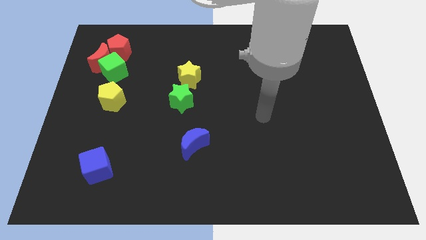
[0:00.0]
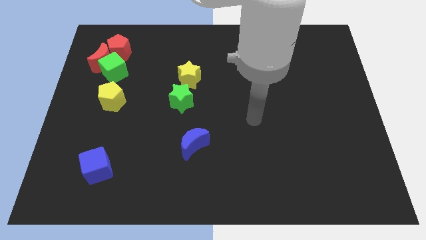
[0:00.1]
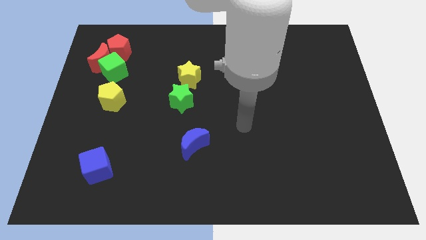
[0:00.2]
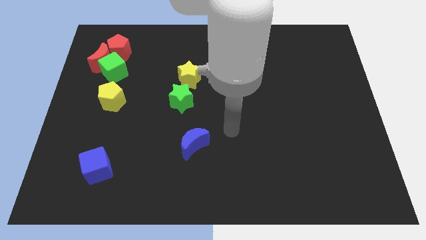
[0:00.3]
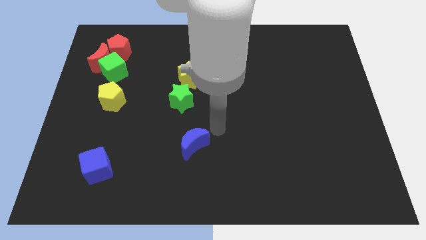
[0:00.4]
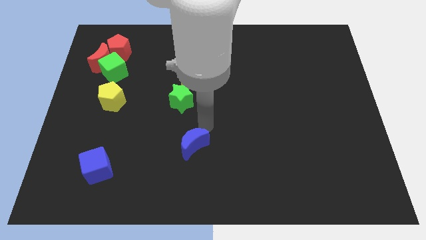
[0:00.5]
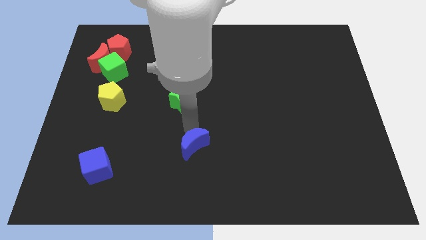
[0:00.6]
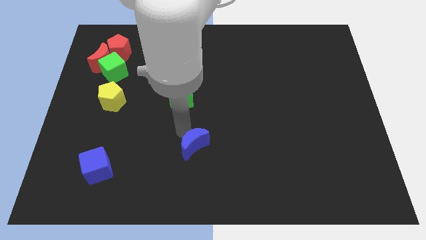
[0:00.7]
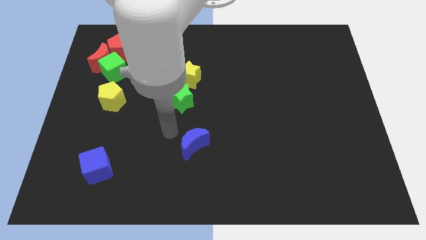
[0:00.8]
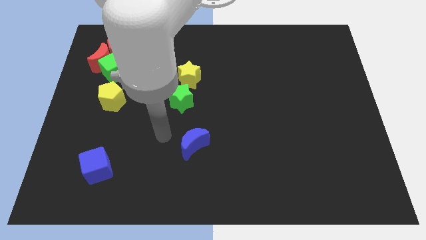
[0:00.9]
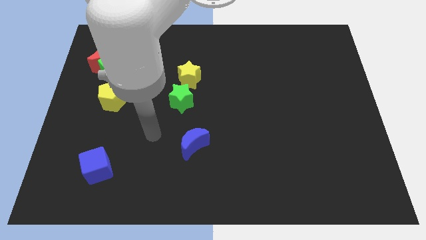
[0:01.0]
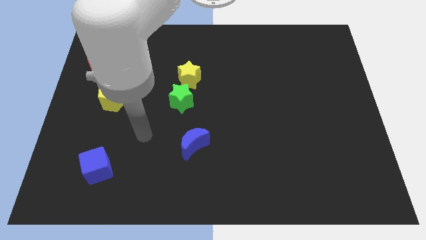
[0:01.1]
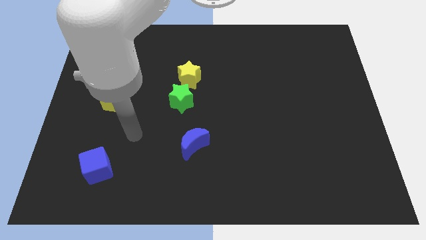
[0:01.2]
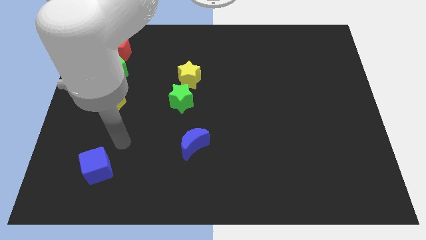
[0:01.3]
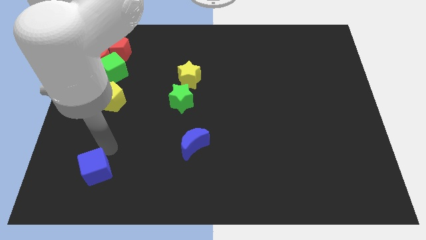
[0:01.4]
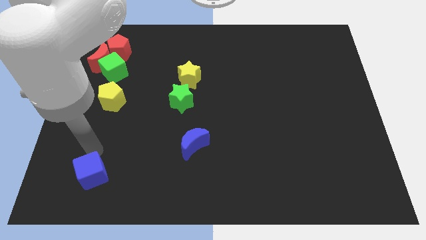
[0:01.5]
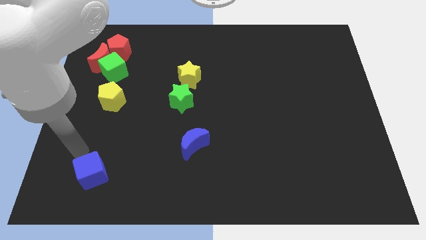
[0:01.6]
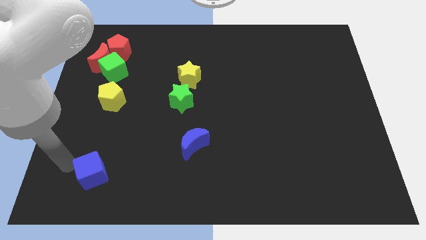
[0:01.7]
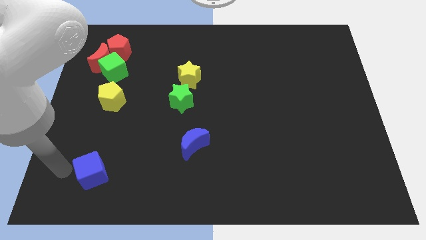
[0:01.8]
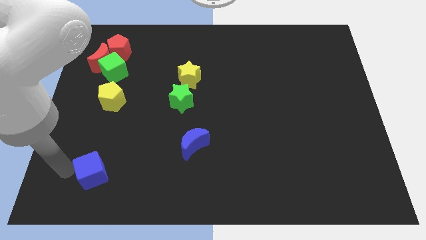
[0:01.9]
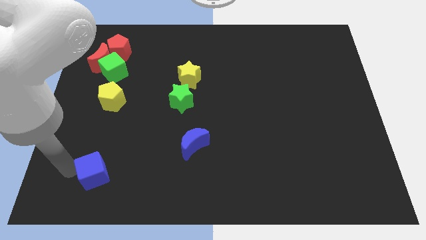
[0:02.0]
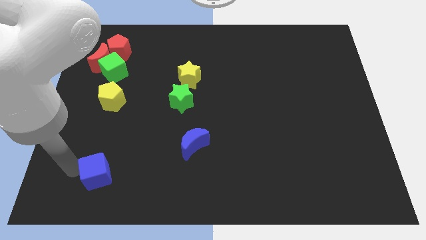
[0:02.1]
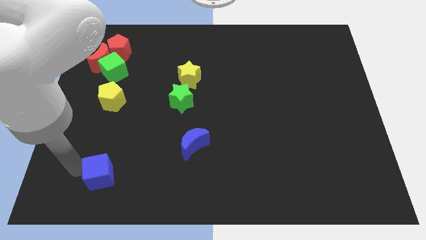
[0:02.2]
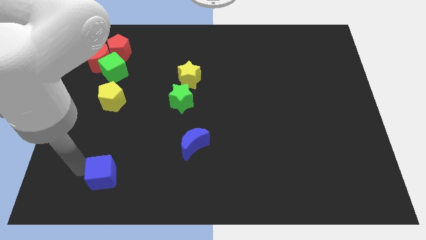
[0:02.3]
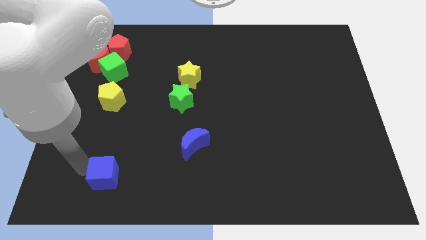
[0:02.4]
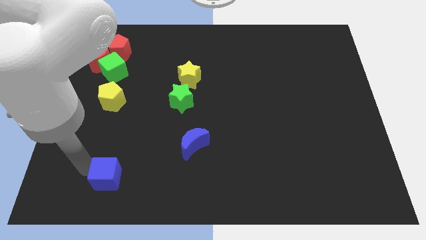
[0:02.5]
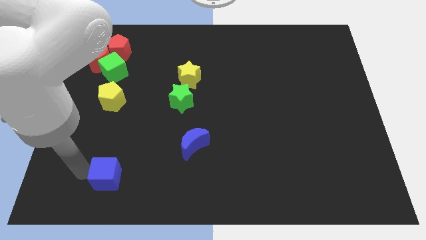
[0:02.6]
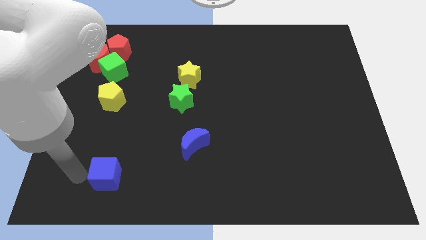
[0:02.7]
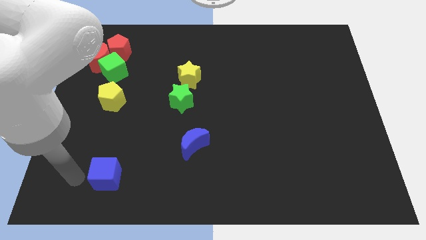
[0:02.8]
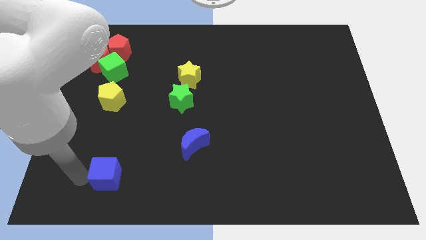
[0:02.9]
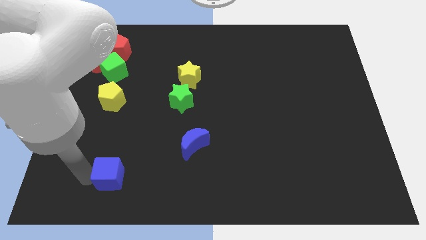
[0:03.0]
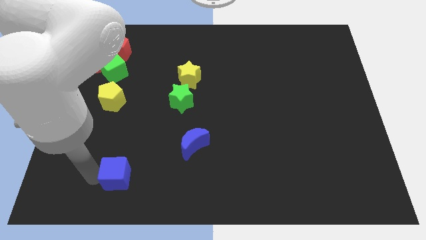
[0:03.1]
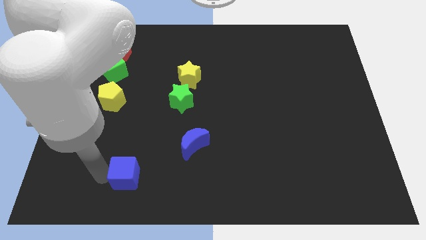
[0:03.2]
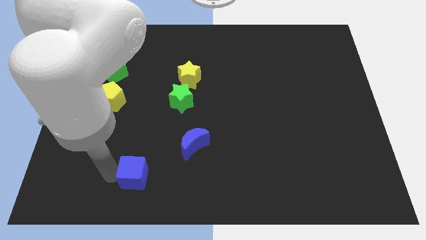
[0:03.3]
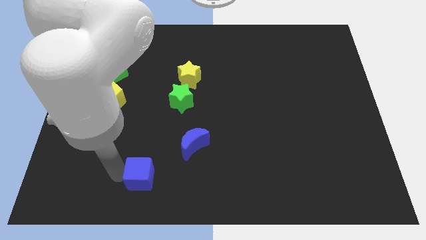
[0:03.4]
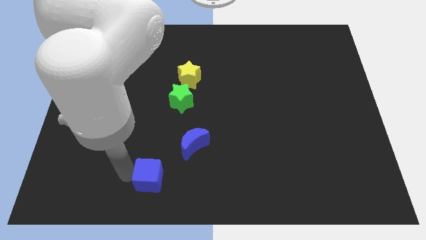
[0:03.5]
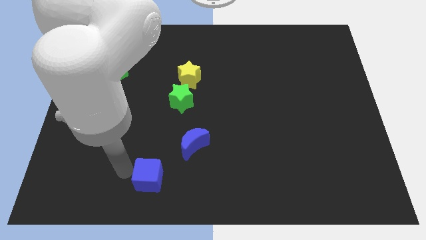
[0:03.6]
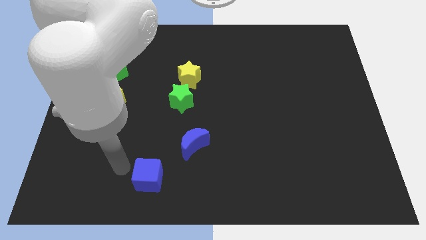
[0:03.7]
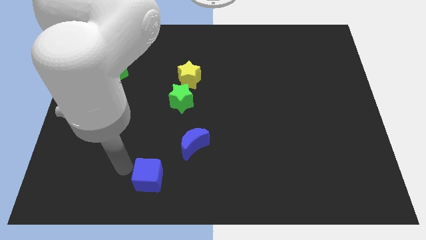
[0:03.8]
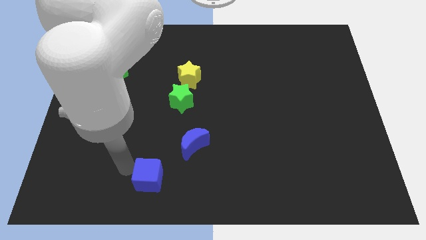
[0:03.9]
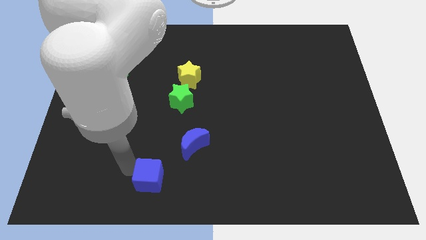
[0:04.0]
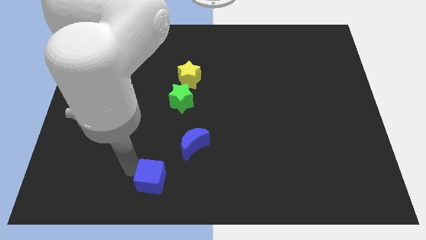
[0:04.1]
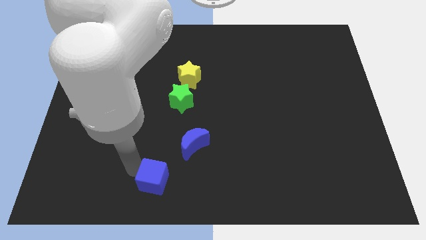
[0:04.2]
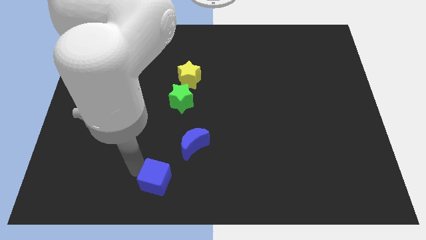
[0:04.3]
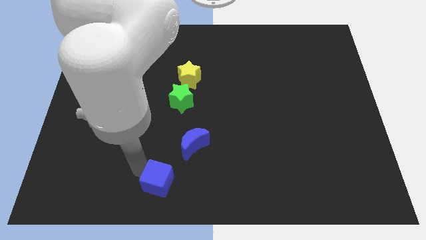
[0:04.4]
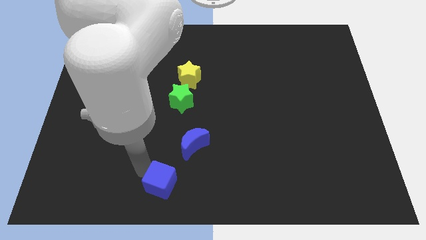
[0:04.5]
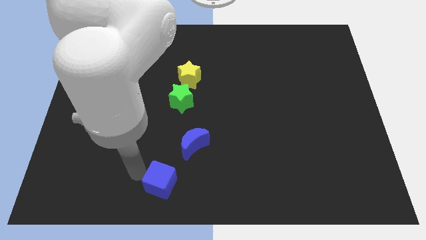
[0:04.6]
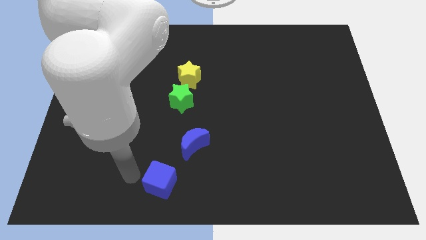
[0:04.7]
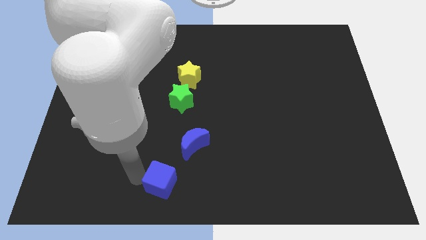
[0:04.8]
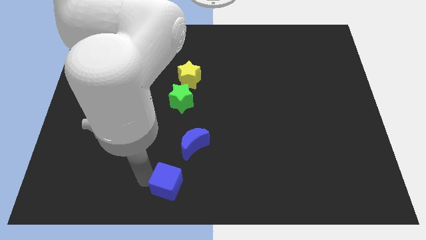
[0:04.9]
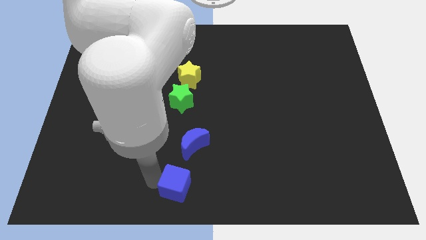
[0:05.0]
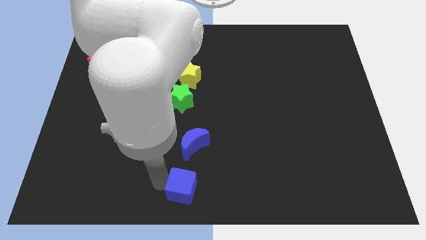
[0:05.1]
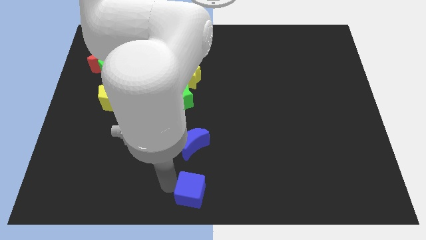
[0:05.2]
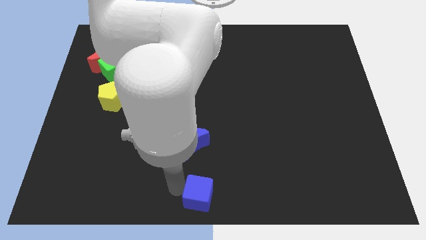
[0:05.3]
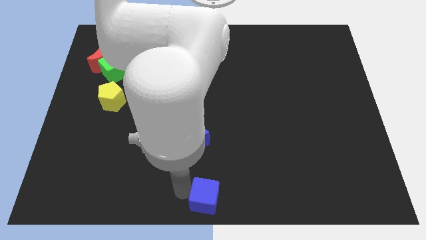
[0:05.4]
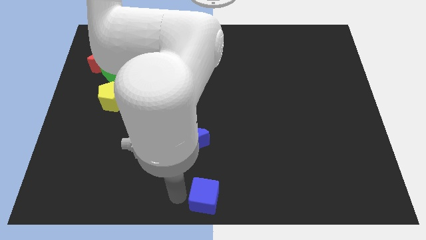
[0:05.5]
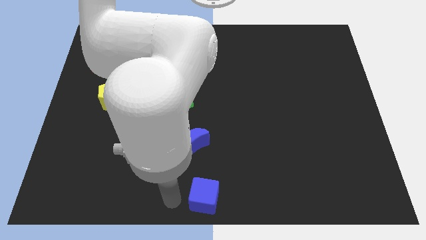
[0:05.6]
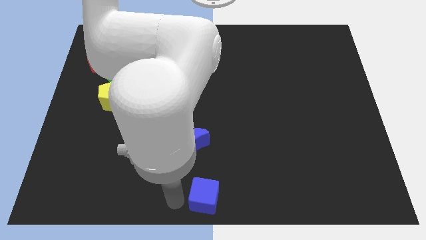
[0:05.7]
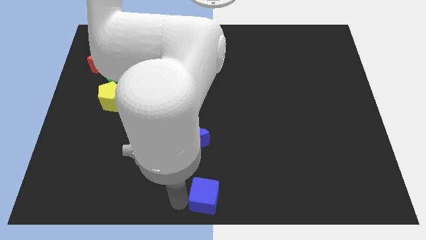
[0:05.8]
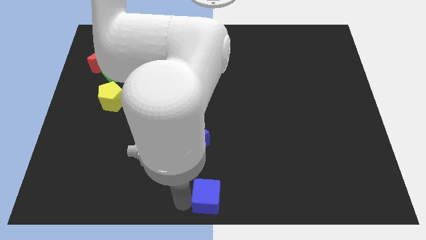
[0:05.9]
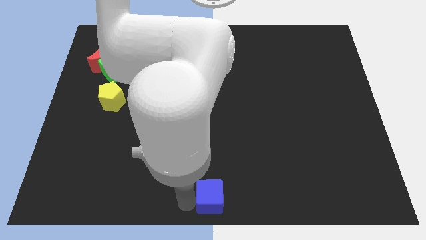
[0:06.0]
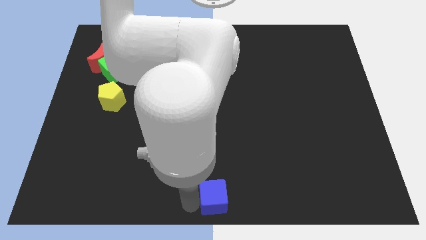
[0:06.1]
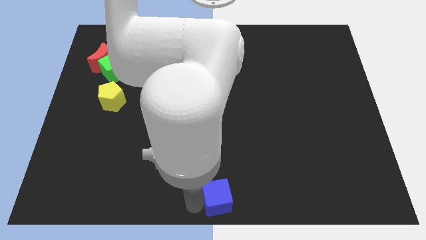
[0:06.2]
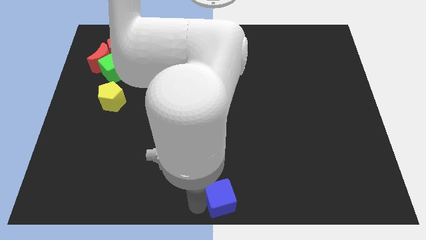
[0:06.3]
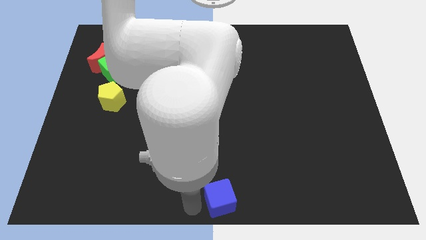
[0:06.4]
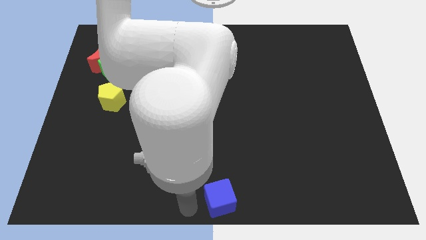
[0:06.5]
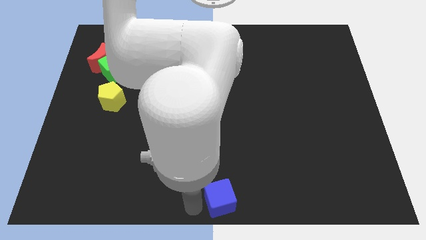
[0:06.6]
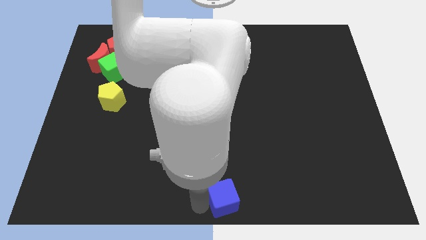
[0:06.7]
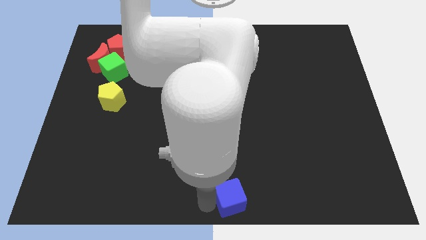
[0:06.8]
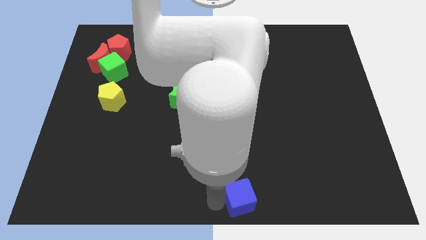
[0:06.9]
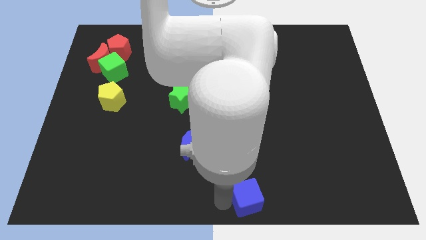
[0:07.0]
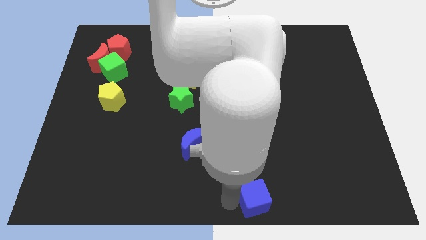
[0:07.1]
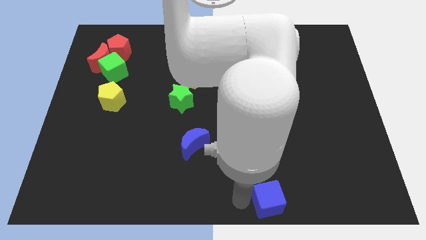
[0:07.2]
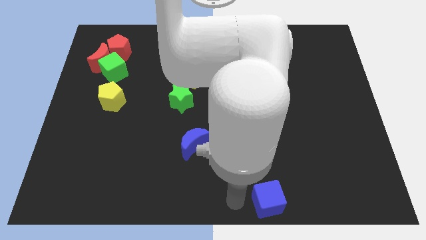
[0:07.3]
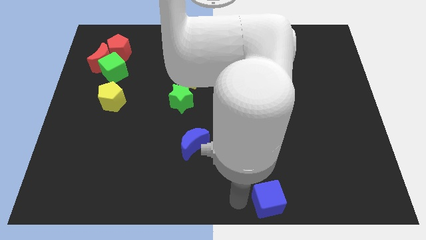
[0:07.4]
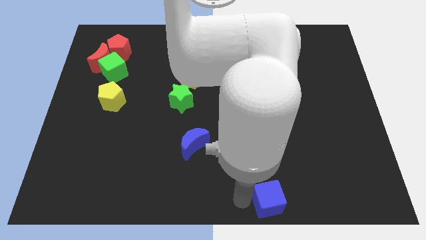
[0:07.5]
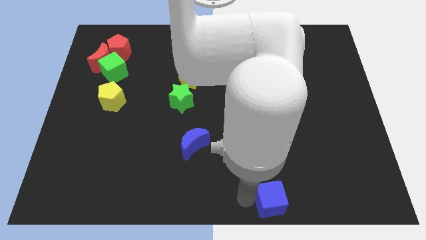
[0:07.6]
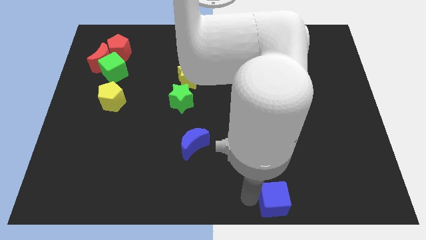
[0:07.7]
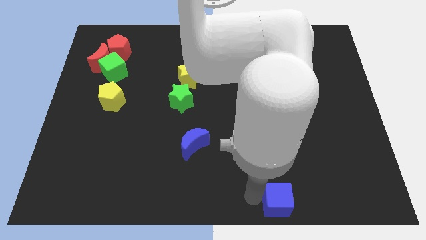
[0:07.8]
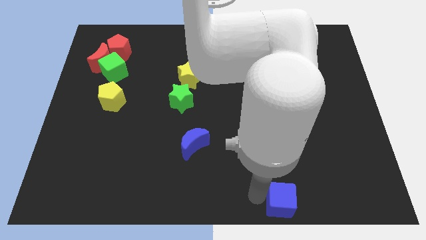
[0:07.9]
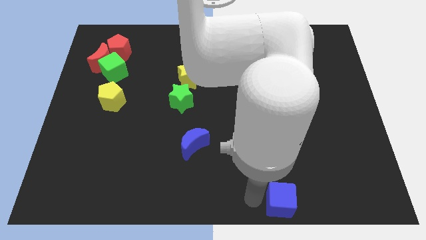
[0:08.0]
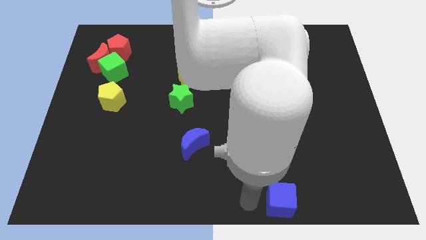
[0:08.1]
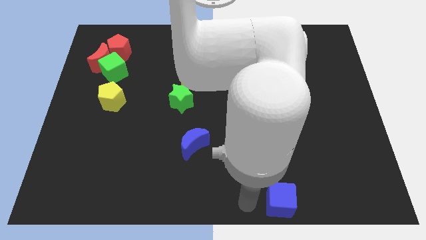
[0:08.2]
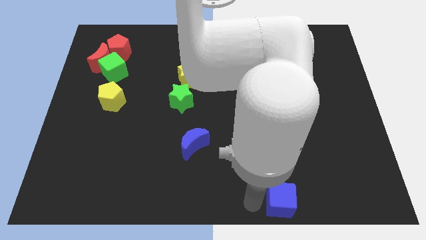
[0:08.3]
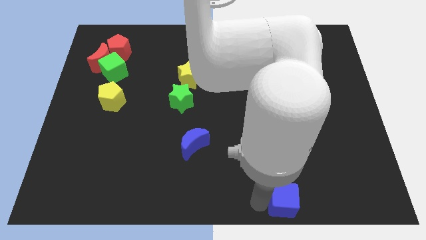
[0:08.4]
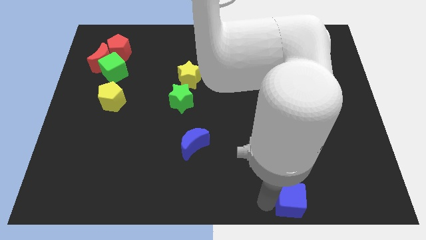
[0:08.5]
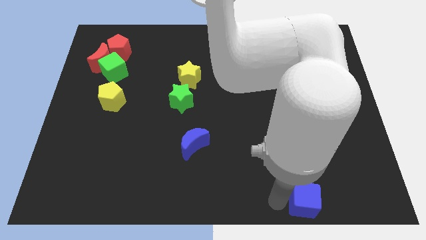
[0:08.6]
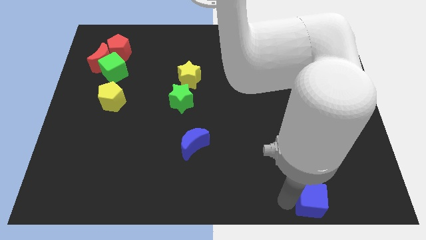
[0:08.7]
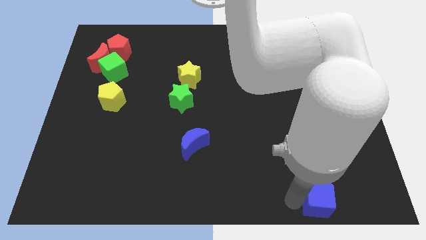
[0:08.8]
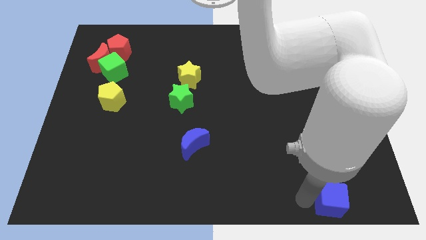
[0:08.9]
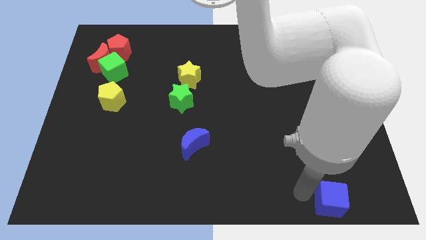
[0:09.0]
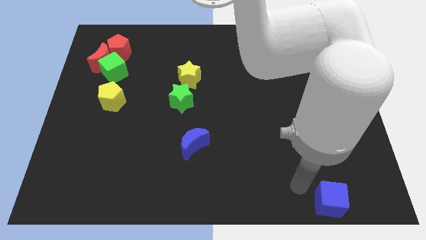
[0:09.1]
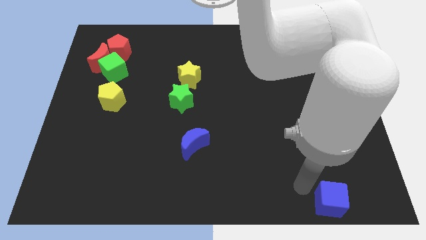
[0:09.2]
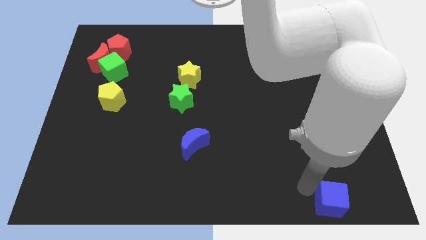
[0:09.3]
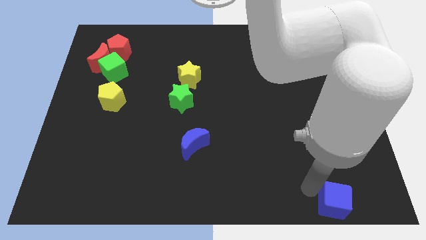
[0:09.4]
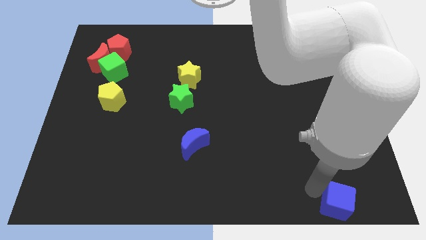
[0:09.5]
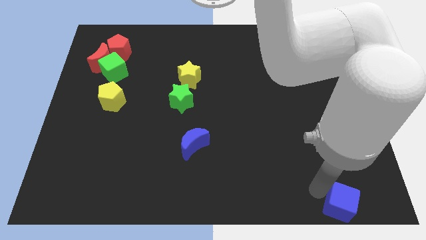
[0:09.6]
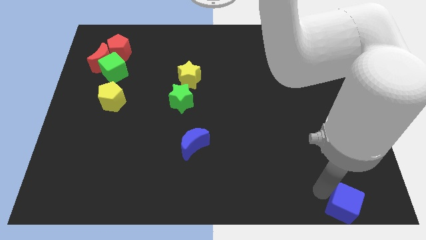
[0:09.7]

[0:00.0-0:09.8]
put the blue cube to the bottom right corner
